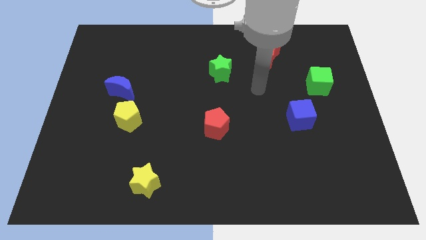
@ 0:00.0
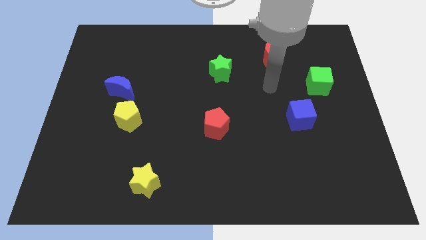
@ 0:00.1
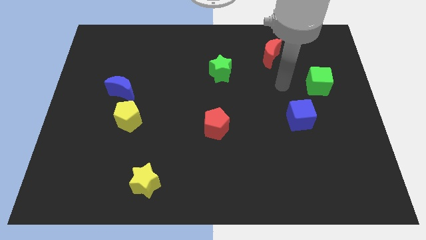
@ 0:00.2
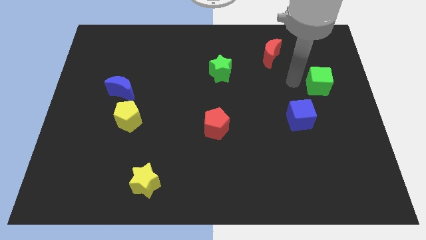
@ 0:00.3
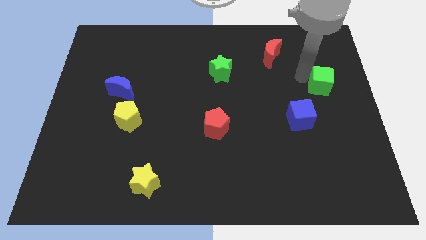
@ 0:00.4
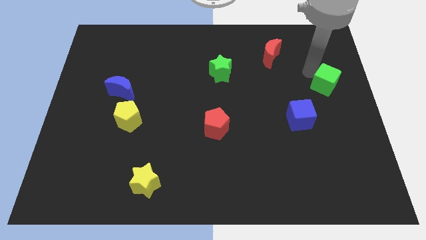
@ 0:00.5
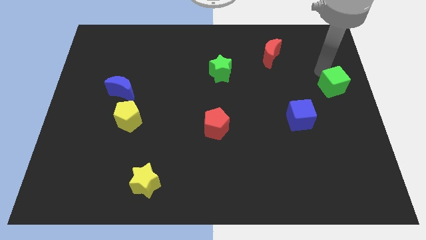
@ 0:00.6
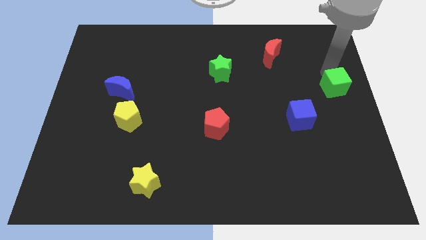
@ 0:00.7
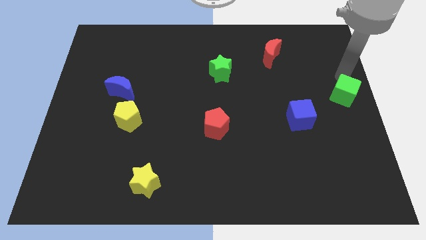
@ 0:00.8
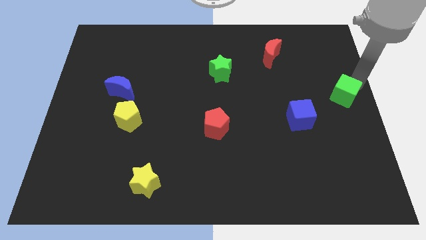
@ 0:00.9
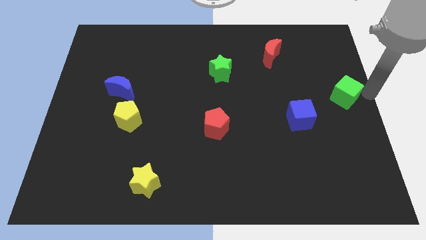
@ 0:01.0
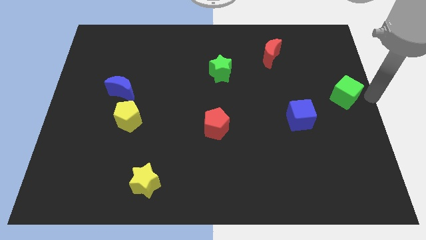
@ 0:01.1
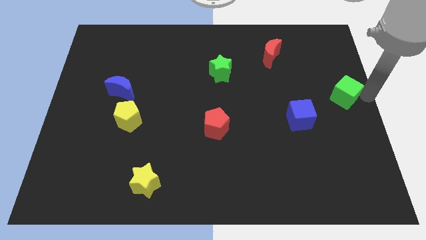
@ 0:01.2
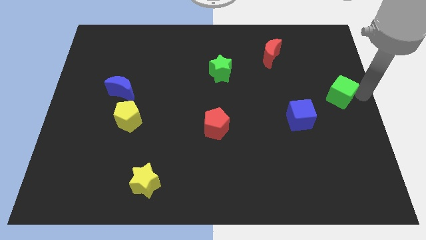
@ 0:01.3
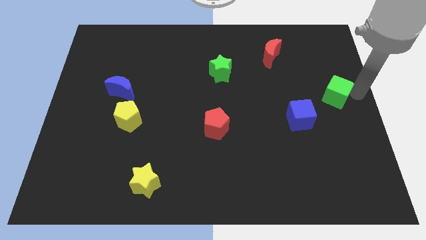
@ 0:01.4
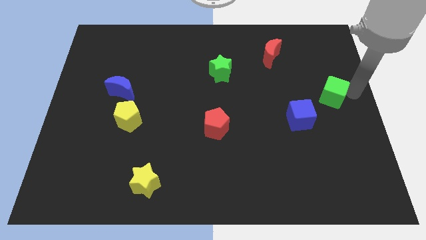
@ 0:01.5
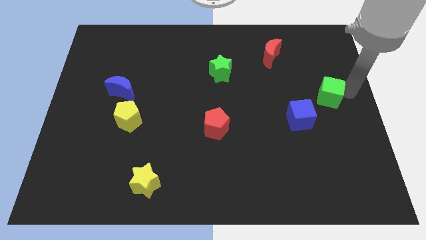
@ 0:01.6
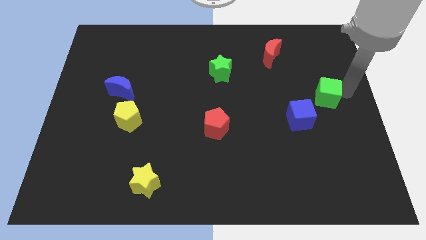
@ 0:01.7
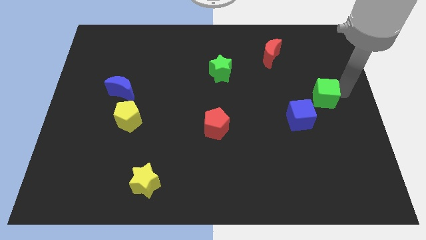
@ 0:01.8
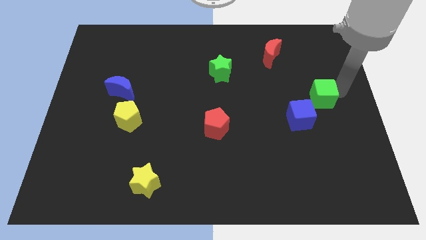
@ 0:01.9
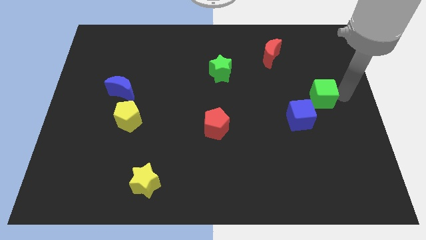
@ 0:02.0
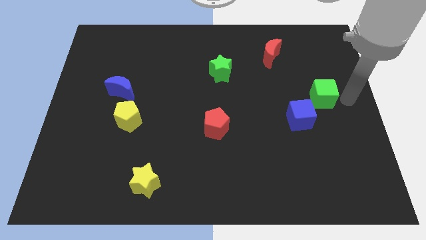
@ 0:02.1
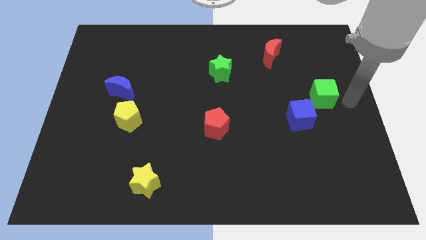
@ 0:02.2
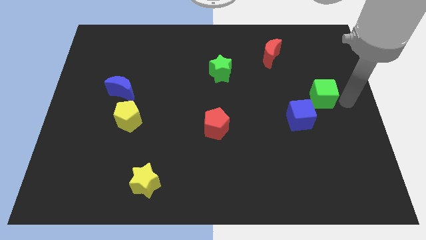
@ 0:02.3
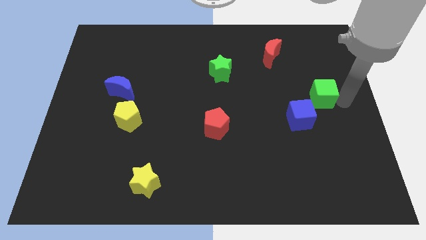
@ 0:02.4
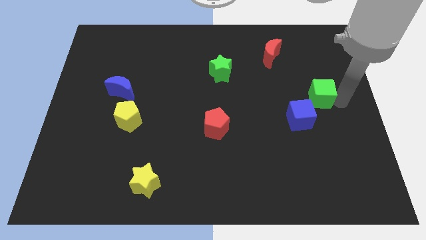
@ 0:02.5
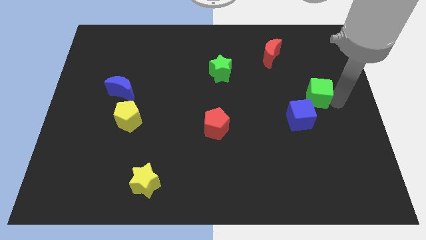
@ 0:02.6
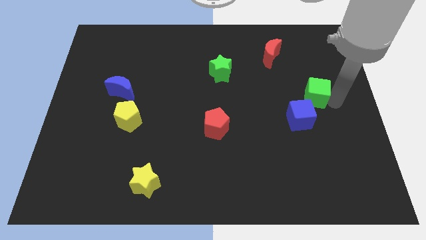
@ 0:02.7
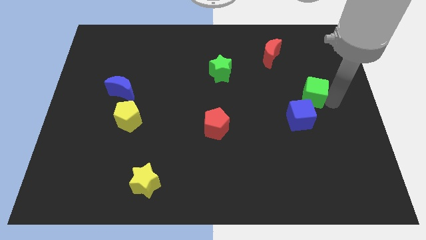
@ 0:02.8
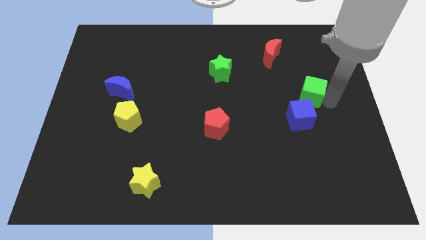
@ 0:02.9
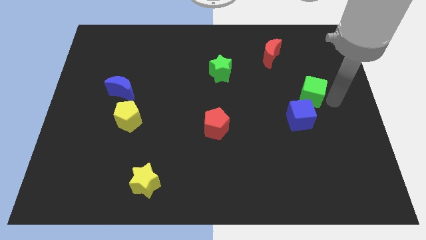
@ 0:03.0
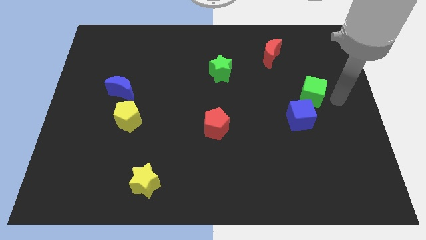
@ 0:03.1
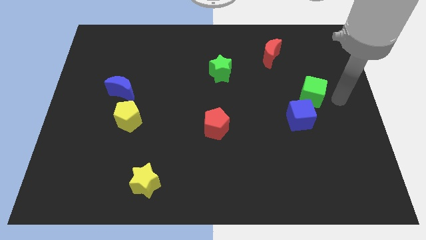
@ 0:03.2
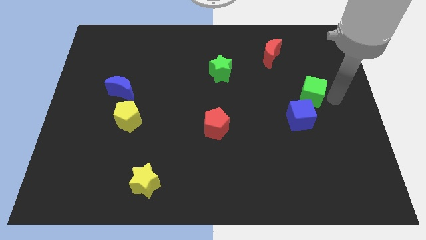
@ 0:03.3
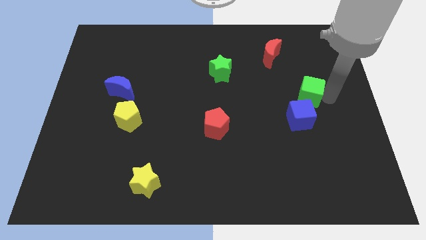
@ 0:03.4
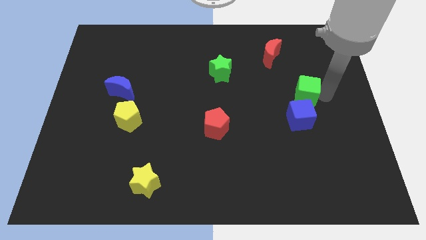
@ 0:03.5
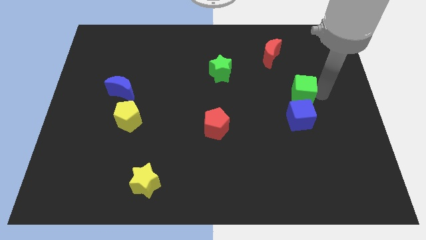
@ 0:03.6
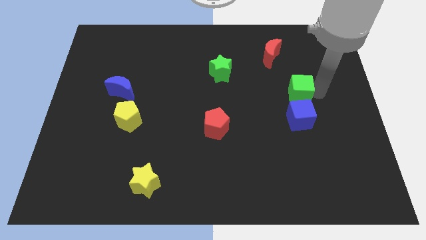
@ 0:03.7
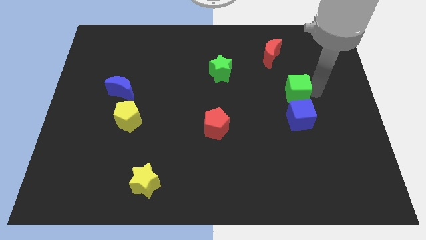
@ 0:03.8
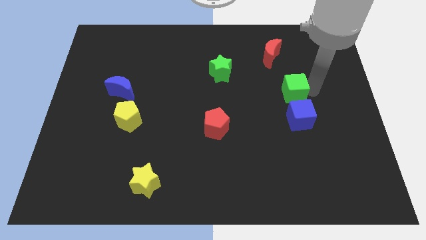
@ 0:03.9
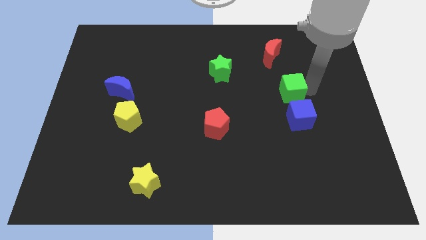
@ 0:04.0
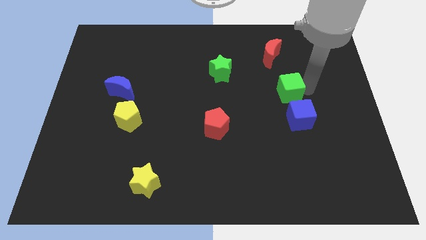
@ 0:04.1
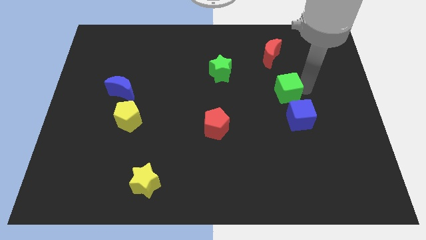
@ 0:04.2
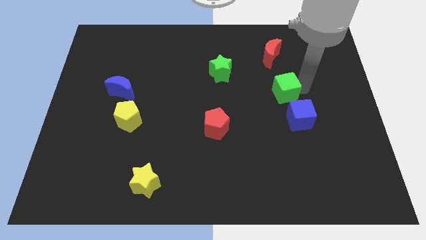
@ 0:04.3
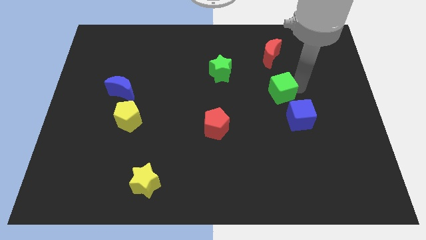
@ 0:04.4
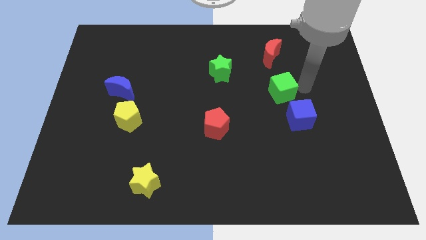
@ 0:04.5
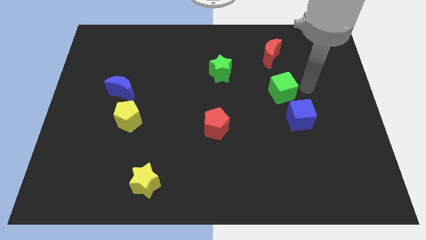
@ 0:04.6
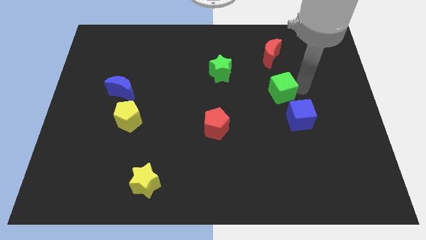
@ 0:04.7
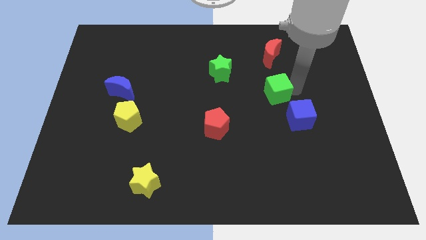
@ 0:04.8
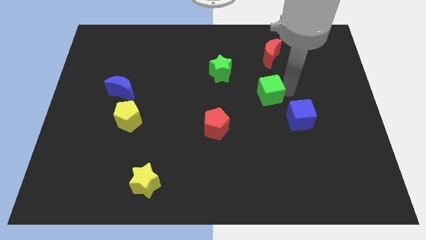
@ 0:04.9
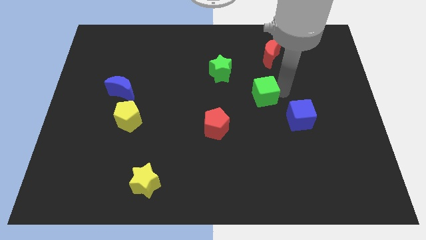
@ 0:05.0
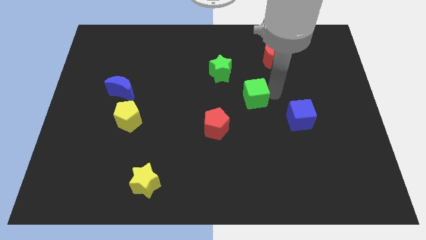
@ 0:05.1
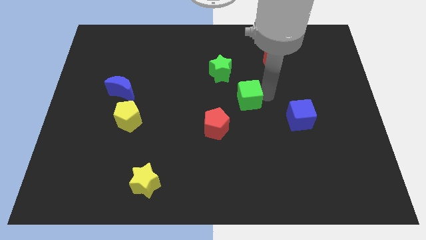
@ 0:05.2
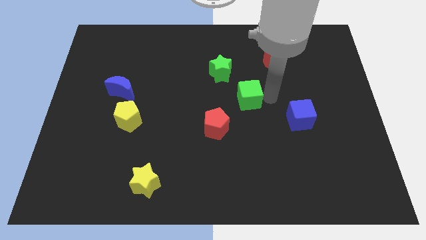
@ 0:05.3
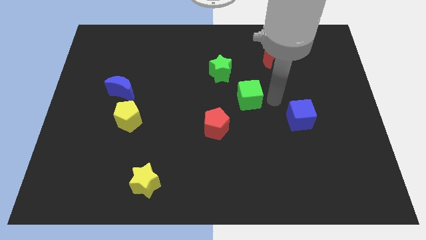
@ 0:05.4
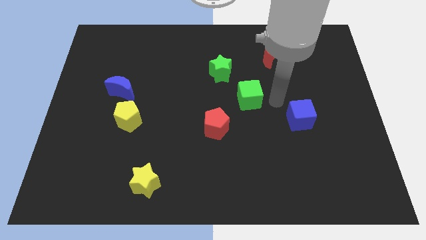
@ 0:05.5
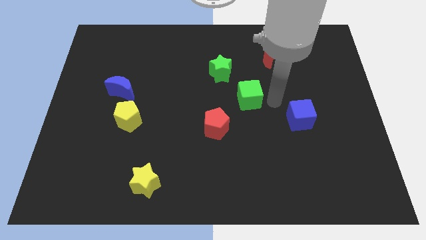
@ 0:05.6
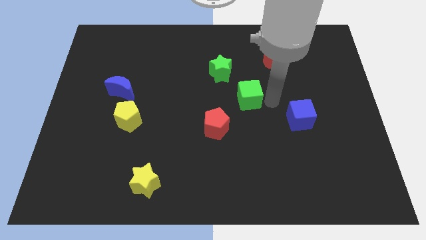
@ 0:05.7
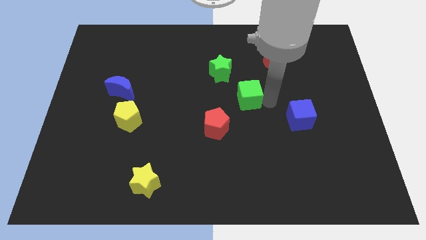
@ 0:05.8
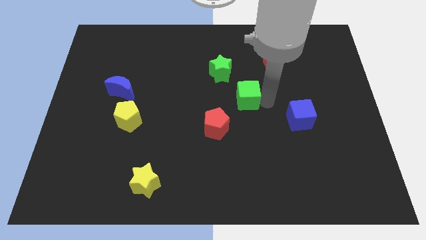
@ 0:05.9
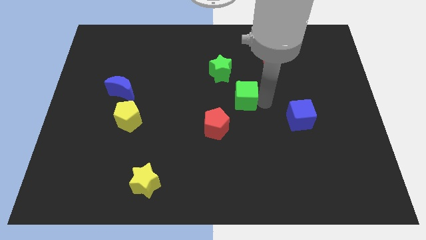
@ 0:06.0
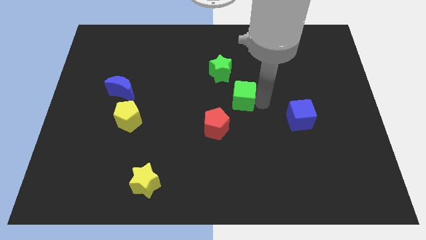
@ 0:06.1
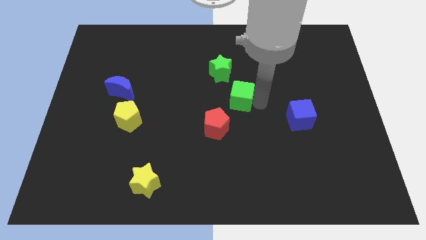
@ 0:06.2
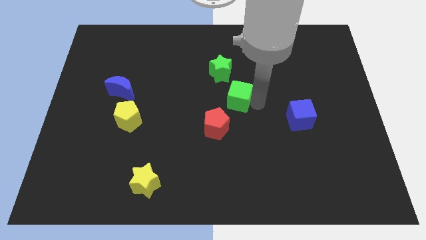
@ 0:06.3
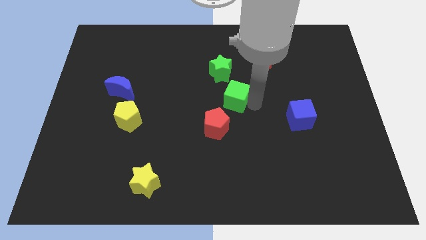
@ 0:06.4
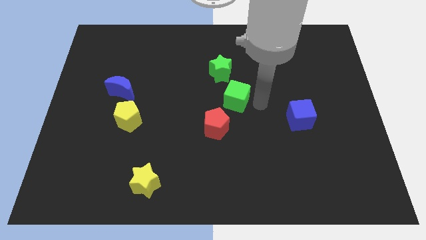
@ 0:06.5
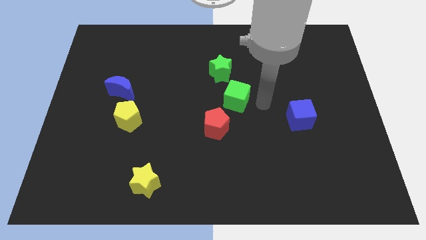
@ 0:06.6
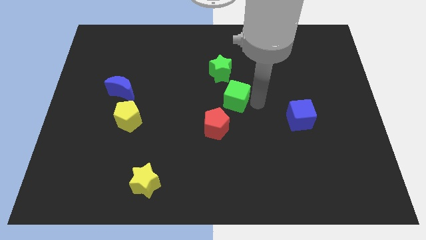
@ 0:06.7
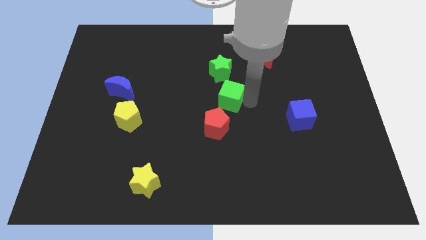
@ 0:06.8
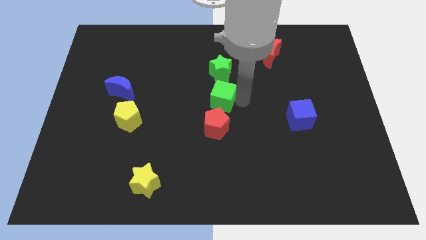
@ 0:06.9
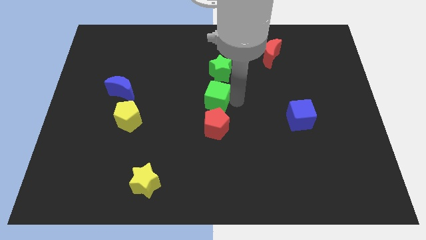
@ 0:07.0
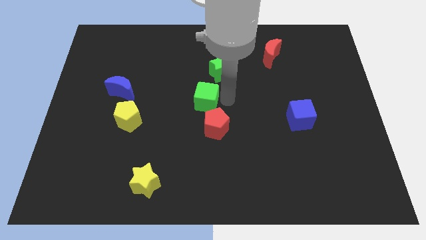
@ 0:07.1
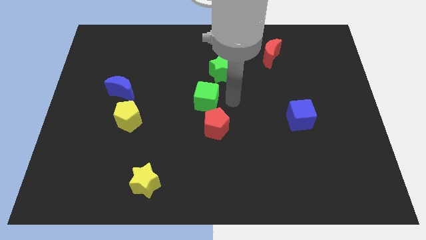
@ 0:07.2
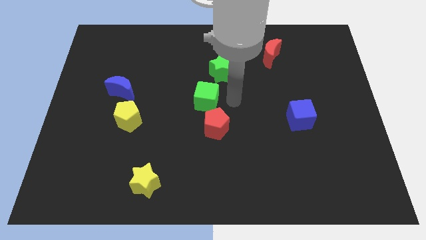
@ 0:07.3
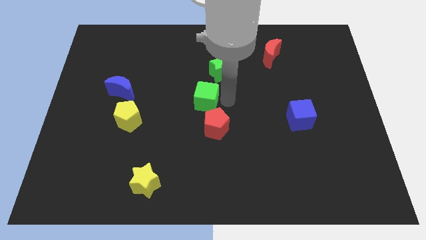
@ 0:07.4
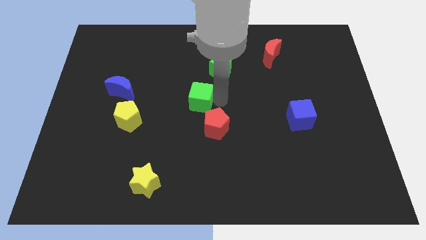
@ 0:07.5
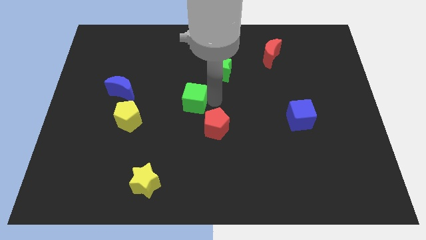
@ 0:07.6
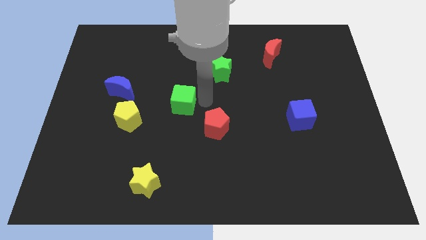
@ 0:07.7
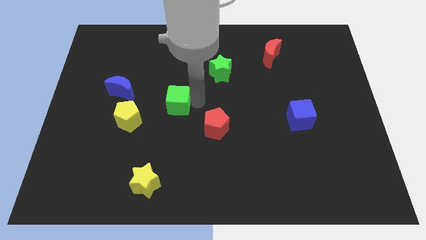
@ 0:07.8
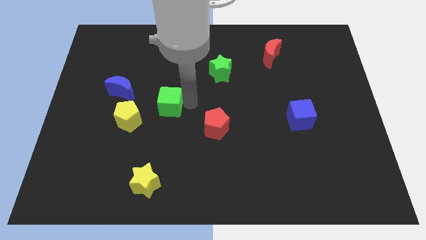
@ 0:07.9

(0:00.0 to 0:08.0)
push the green cube to the top right of the yellow pentagon

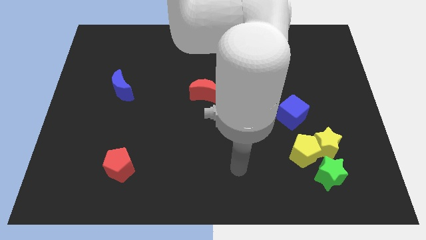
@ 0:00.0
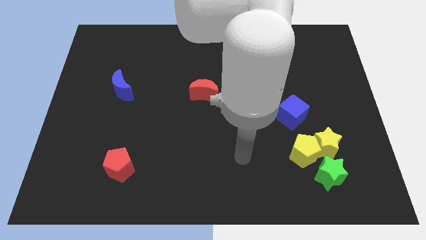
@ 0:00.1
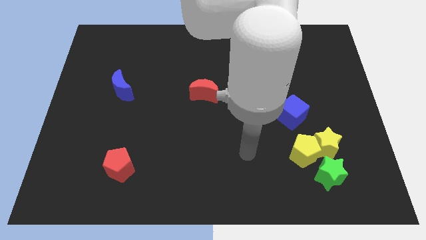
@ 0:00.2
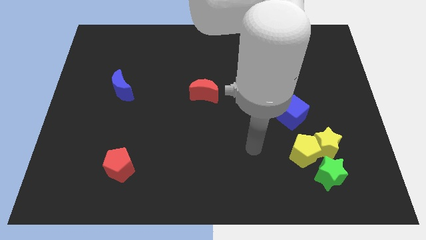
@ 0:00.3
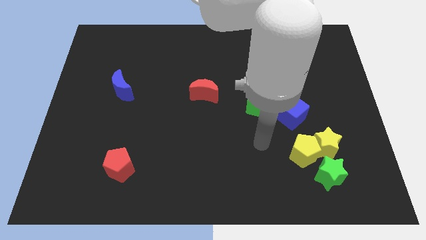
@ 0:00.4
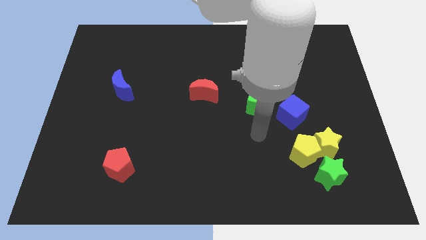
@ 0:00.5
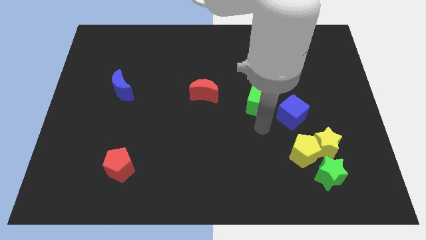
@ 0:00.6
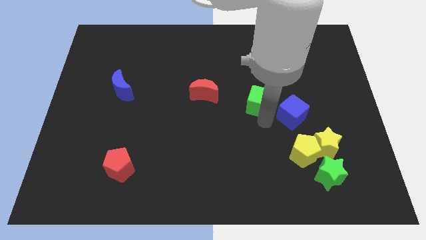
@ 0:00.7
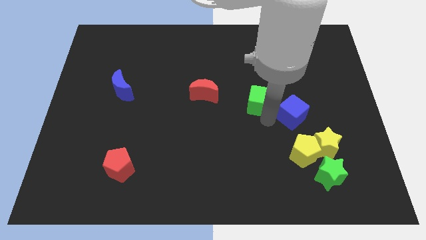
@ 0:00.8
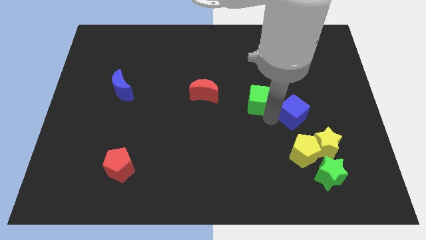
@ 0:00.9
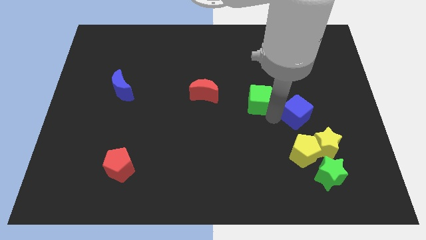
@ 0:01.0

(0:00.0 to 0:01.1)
push the blue cube above the yellow star
